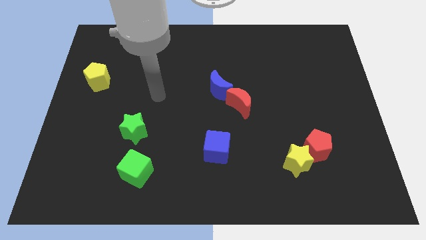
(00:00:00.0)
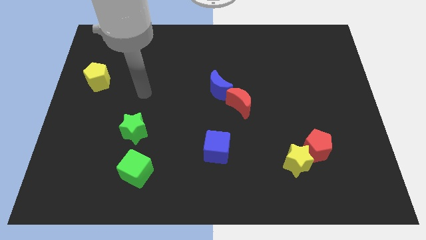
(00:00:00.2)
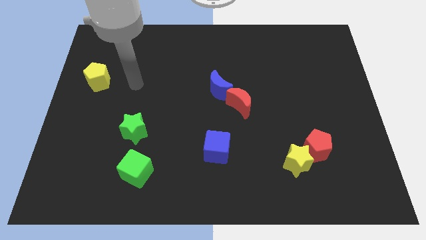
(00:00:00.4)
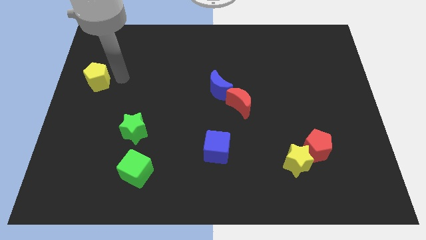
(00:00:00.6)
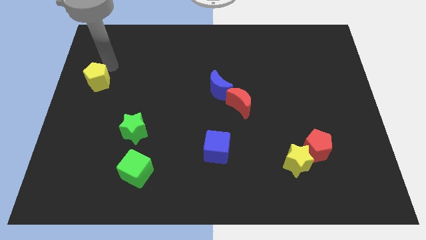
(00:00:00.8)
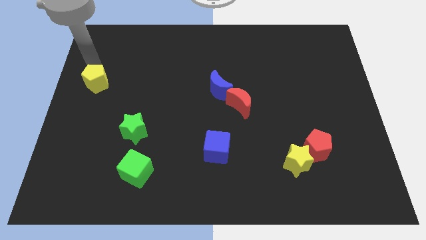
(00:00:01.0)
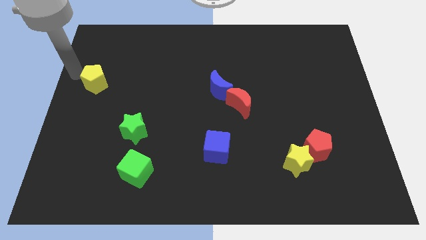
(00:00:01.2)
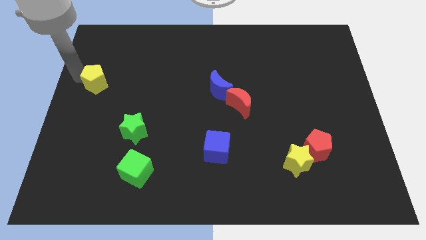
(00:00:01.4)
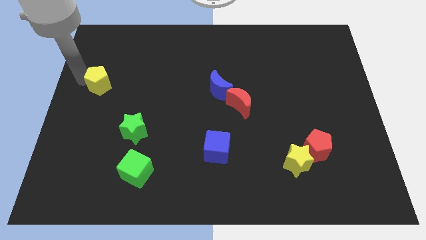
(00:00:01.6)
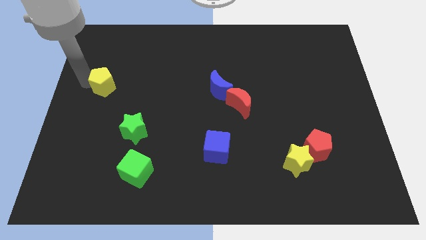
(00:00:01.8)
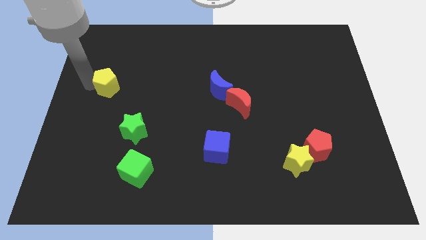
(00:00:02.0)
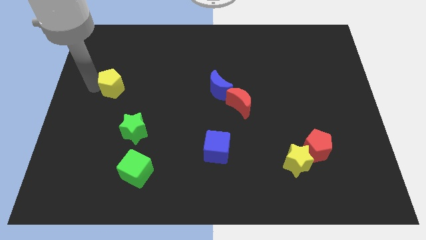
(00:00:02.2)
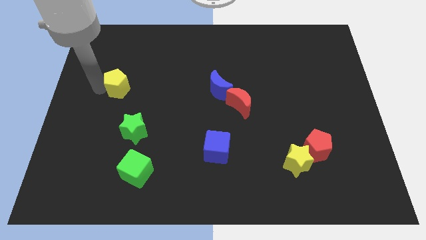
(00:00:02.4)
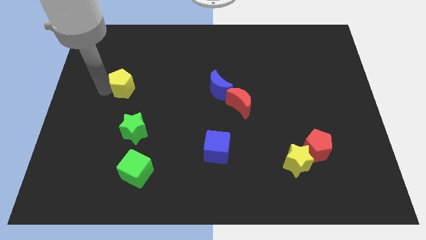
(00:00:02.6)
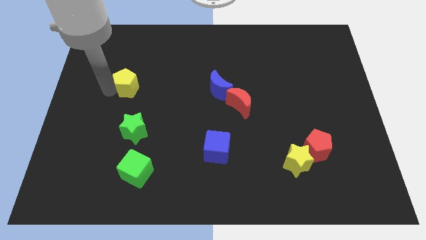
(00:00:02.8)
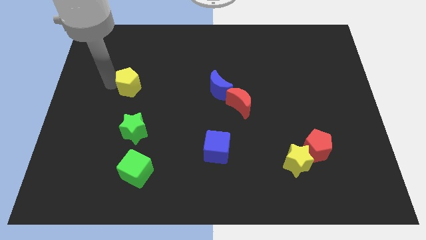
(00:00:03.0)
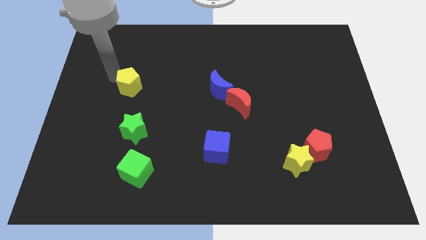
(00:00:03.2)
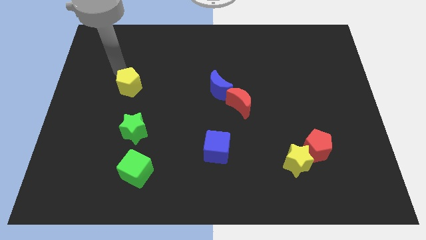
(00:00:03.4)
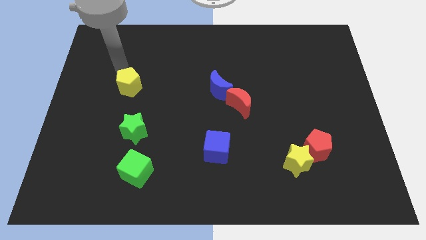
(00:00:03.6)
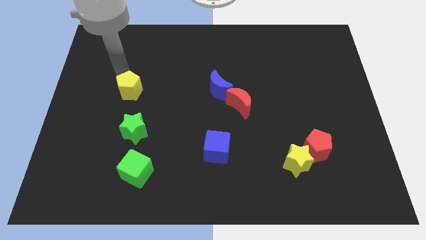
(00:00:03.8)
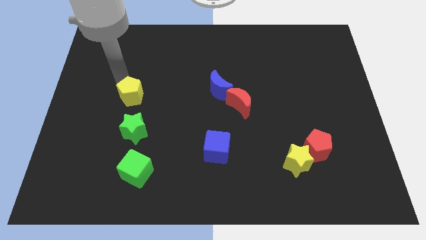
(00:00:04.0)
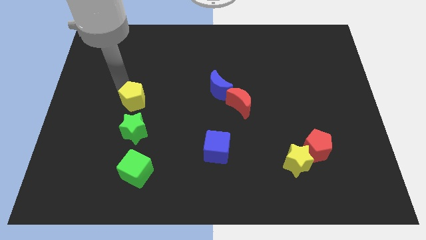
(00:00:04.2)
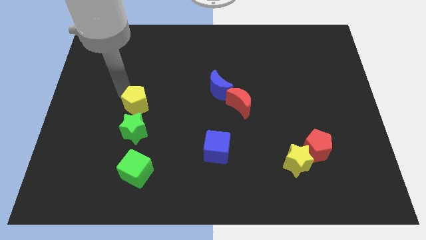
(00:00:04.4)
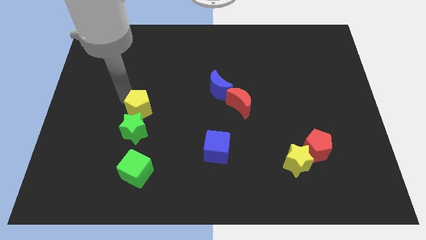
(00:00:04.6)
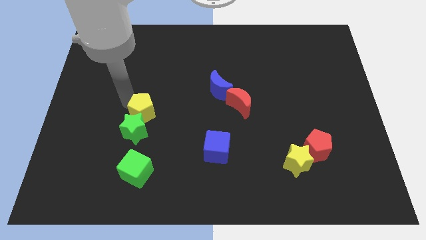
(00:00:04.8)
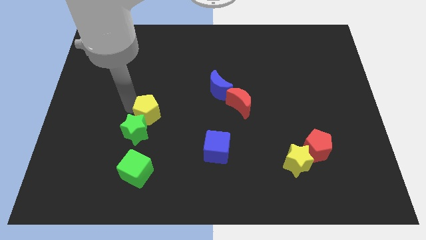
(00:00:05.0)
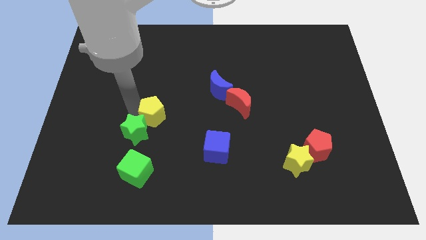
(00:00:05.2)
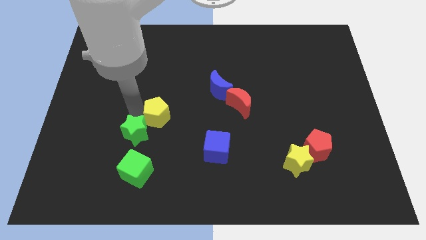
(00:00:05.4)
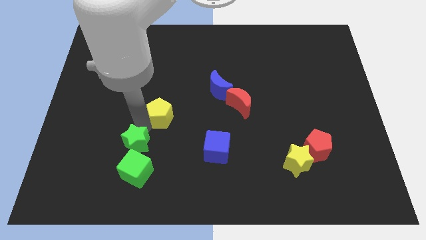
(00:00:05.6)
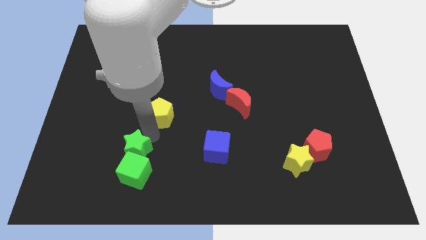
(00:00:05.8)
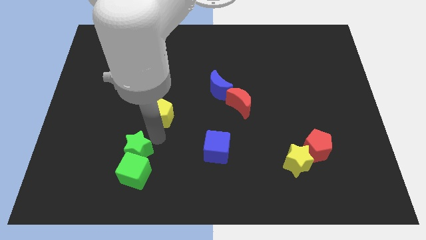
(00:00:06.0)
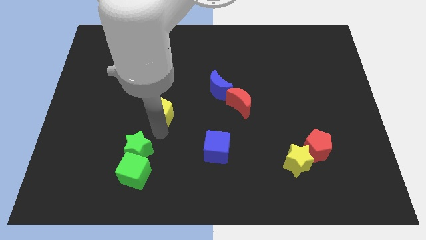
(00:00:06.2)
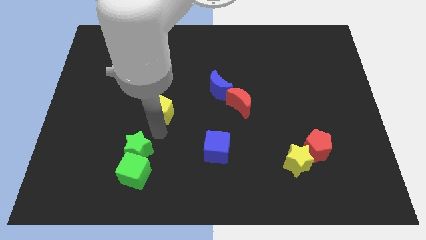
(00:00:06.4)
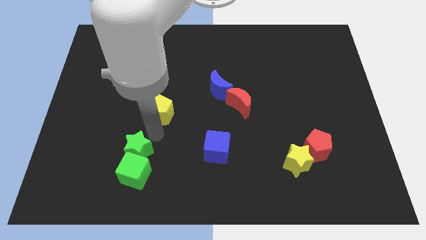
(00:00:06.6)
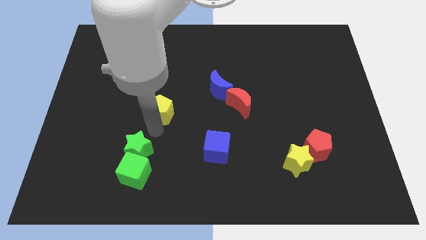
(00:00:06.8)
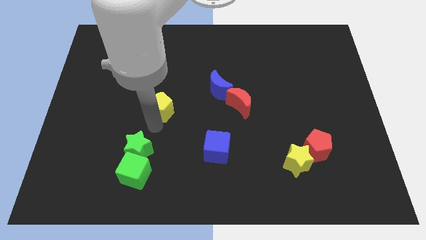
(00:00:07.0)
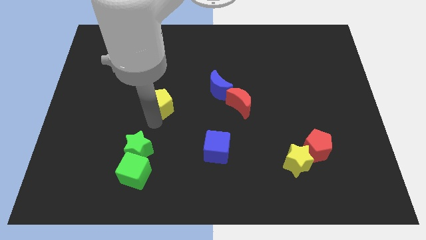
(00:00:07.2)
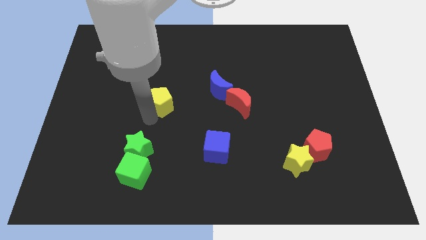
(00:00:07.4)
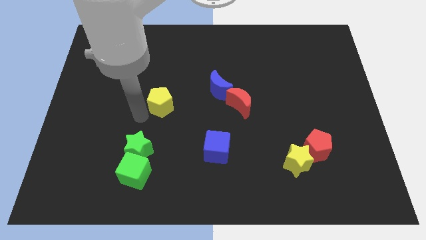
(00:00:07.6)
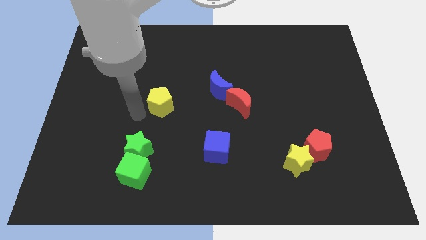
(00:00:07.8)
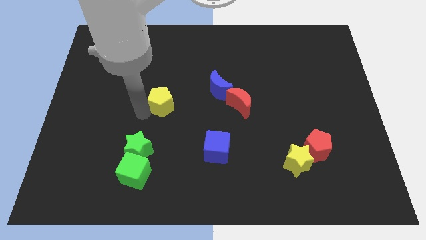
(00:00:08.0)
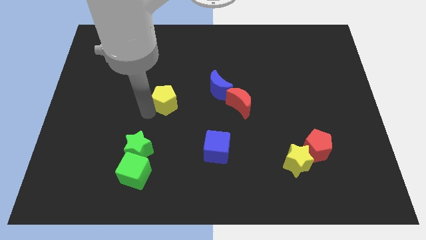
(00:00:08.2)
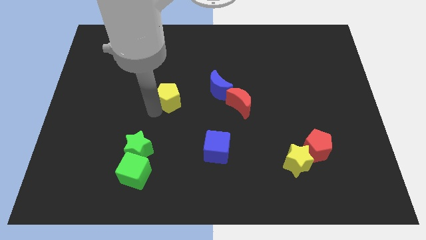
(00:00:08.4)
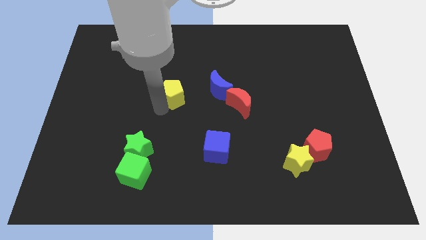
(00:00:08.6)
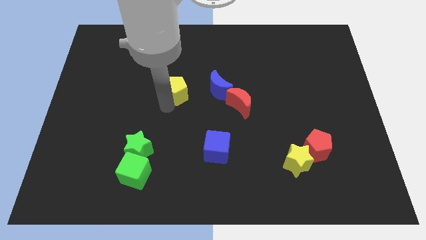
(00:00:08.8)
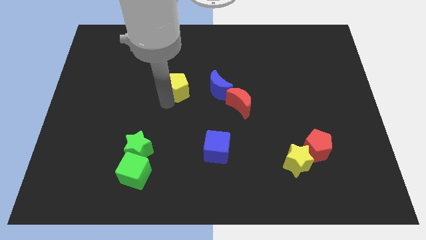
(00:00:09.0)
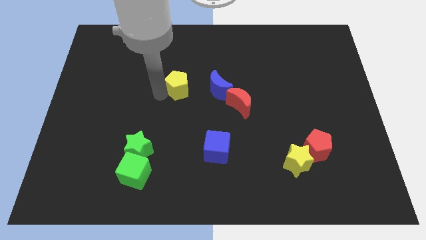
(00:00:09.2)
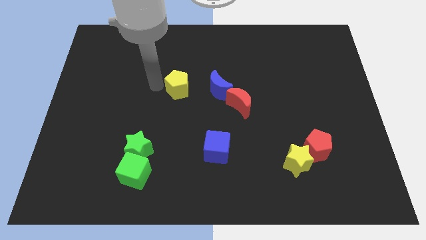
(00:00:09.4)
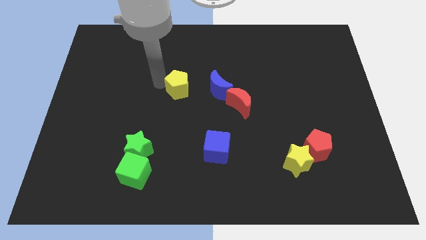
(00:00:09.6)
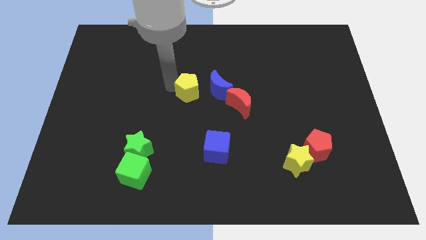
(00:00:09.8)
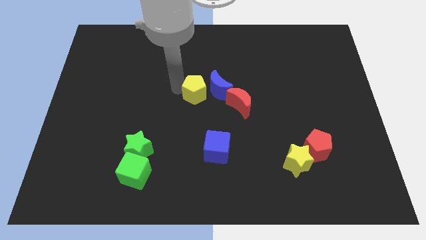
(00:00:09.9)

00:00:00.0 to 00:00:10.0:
slide the yellow pentagon close to the blue moon

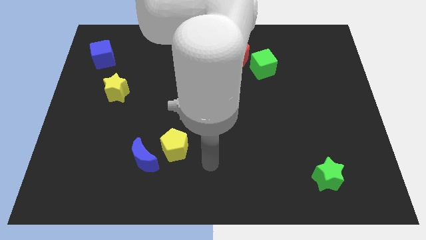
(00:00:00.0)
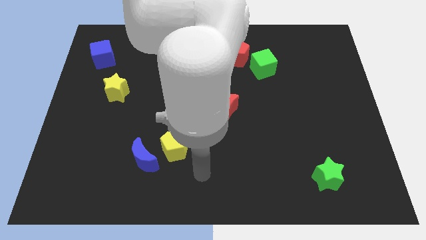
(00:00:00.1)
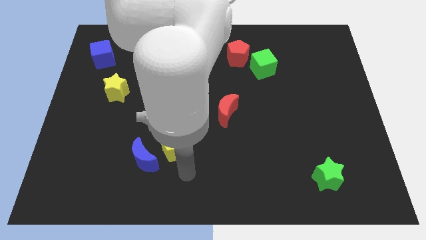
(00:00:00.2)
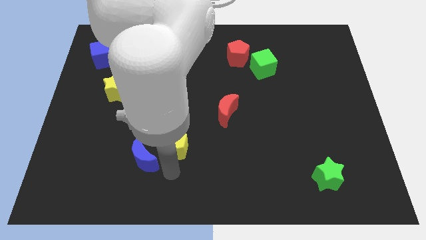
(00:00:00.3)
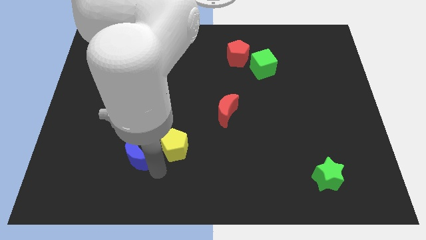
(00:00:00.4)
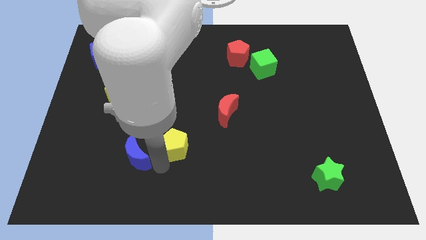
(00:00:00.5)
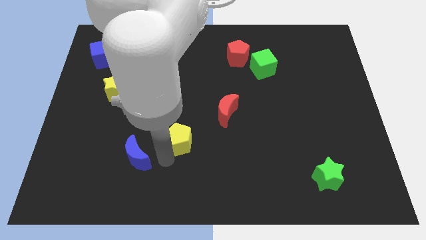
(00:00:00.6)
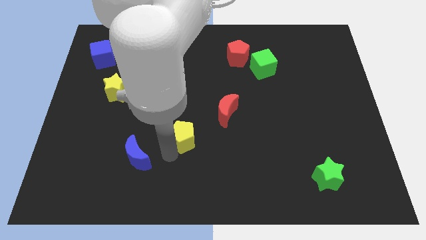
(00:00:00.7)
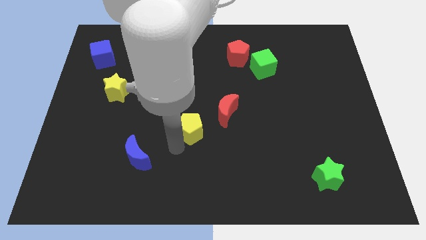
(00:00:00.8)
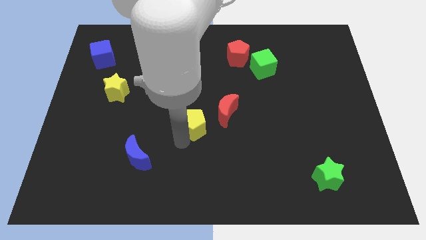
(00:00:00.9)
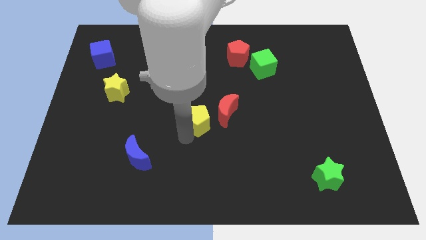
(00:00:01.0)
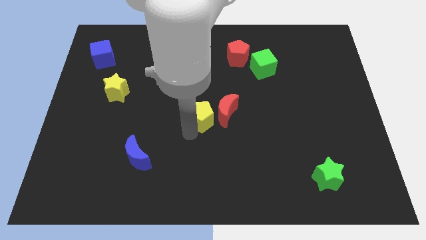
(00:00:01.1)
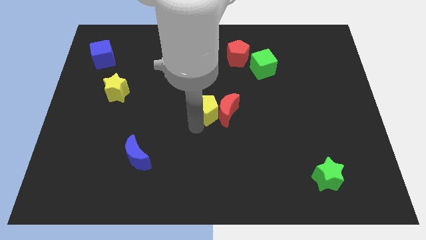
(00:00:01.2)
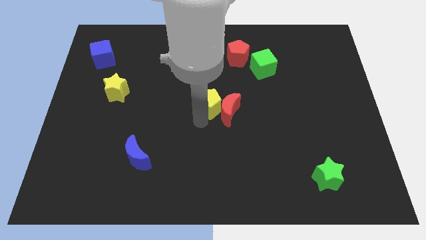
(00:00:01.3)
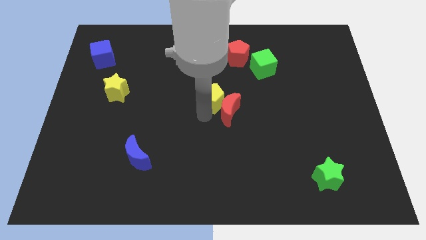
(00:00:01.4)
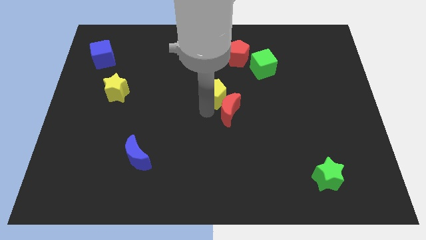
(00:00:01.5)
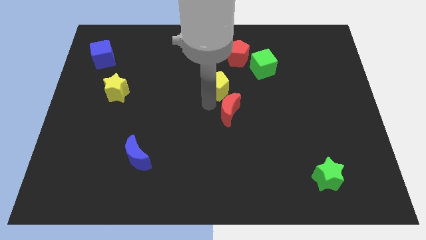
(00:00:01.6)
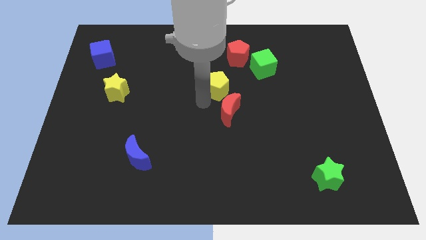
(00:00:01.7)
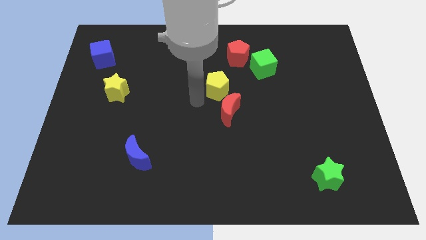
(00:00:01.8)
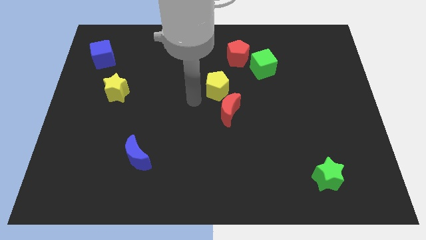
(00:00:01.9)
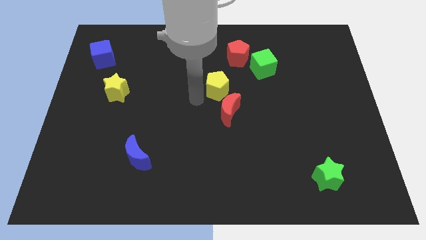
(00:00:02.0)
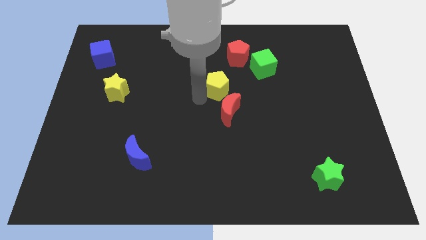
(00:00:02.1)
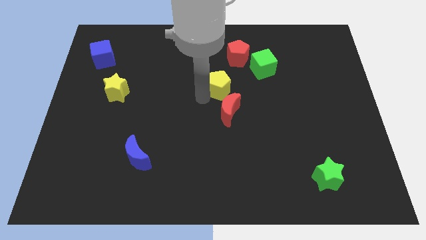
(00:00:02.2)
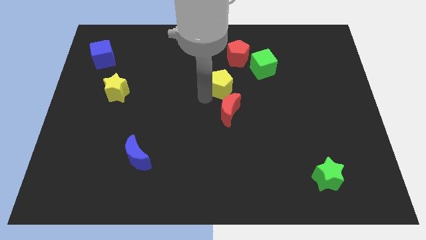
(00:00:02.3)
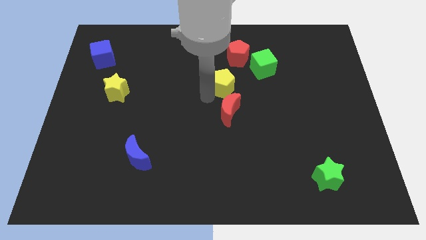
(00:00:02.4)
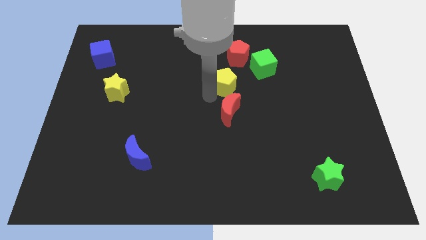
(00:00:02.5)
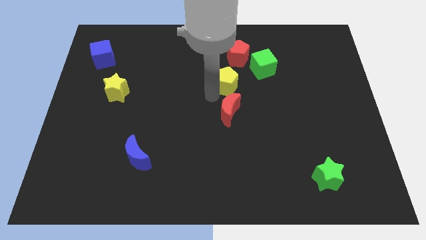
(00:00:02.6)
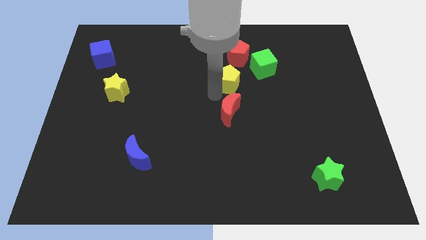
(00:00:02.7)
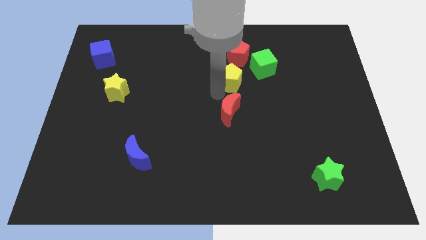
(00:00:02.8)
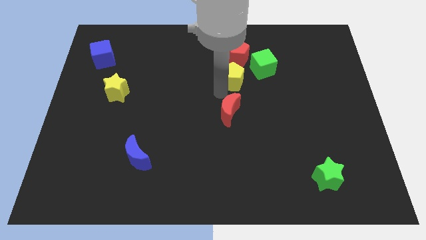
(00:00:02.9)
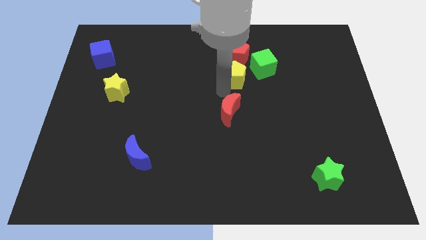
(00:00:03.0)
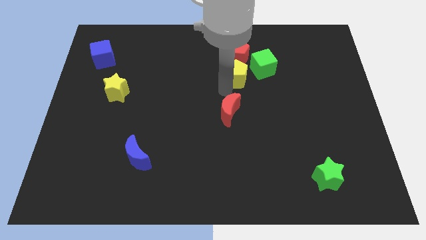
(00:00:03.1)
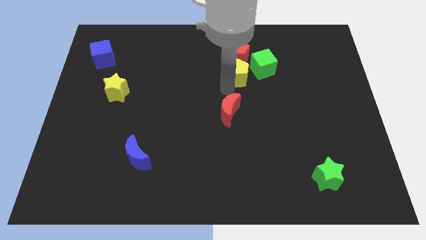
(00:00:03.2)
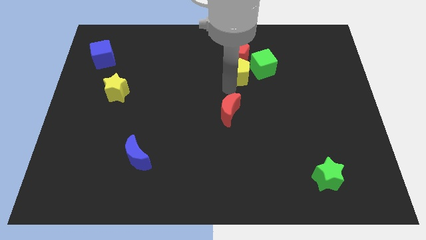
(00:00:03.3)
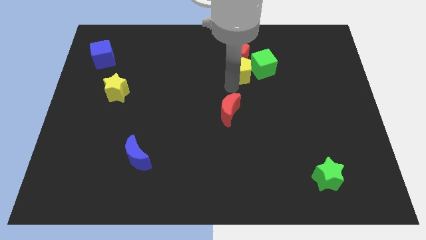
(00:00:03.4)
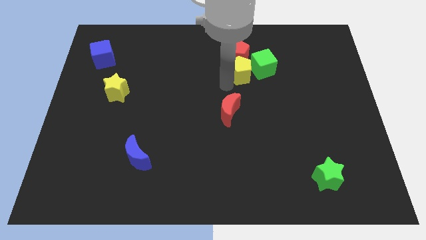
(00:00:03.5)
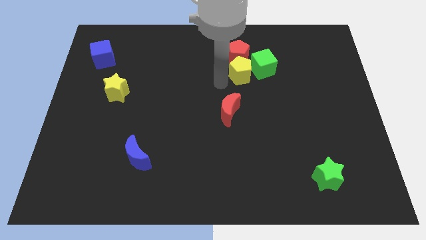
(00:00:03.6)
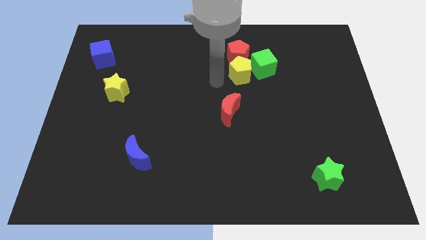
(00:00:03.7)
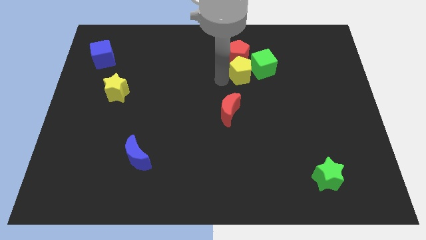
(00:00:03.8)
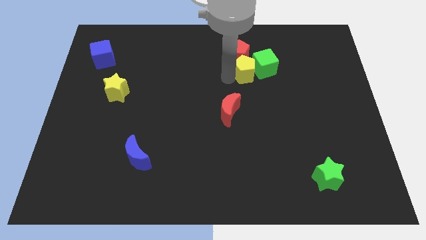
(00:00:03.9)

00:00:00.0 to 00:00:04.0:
put the yellow pentagon to the green cube
